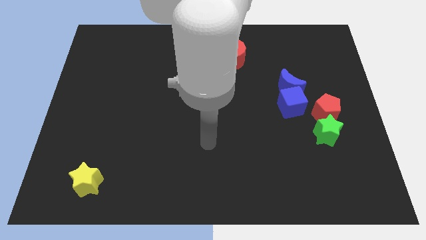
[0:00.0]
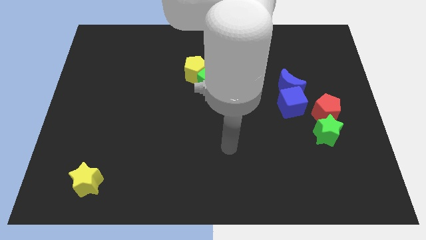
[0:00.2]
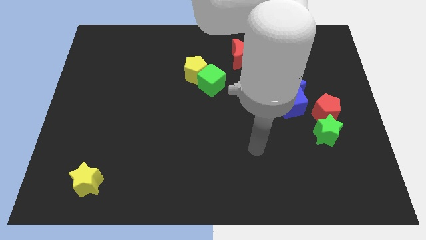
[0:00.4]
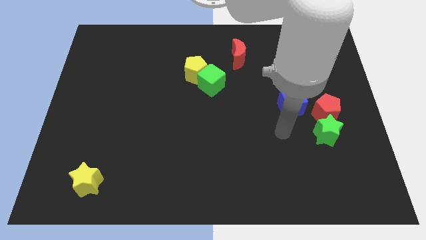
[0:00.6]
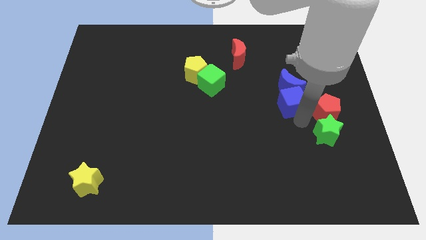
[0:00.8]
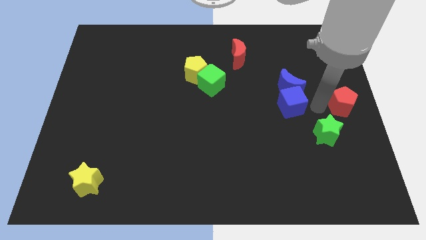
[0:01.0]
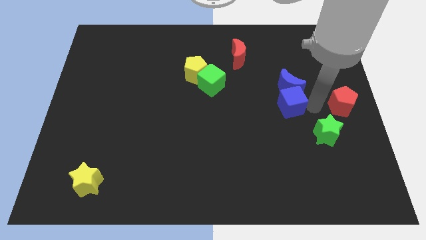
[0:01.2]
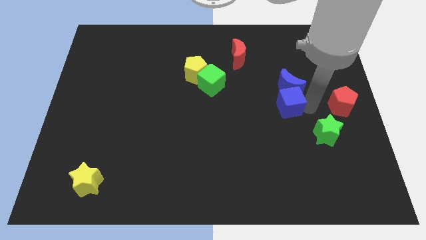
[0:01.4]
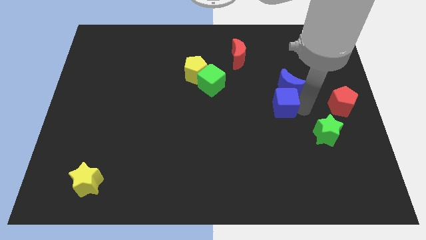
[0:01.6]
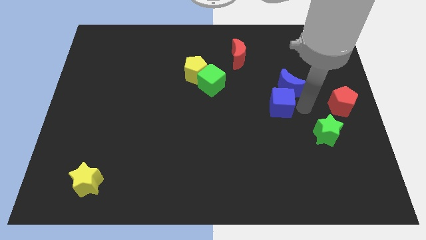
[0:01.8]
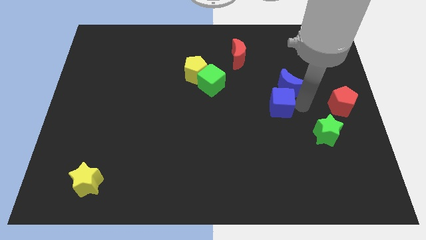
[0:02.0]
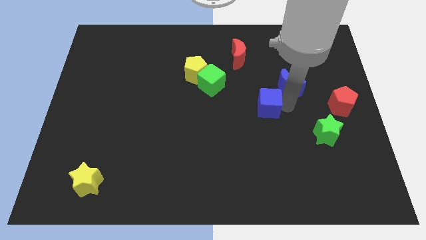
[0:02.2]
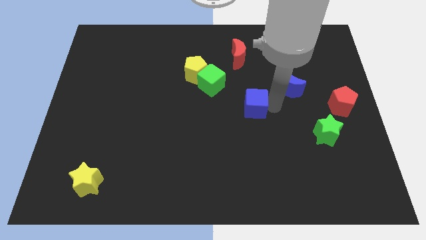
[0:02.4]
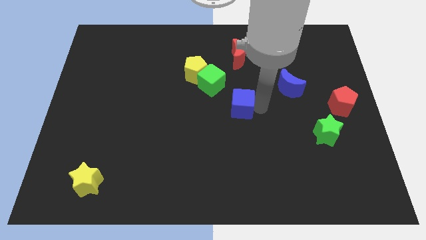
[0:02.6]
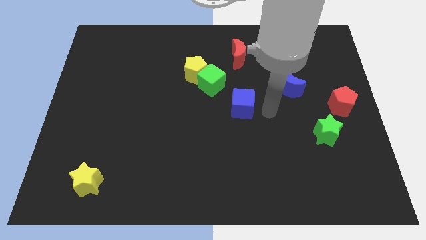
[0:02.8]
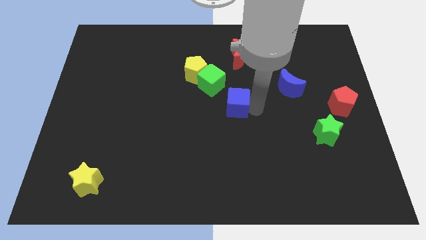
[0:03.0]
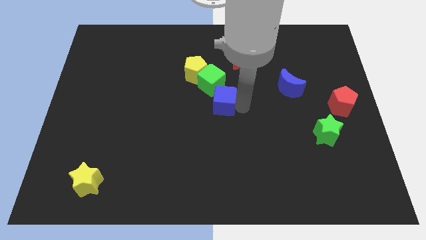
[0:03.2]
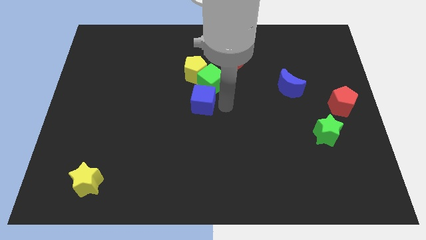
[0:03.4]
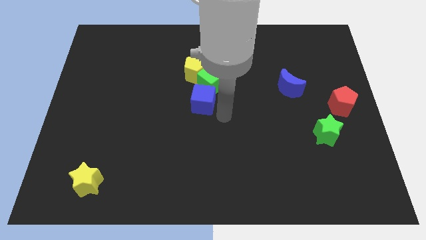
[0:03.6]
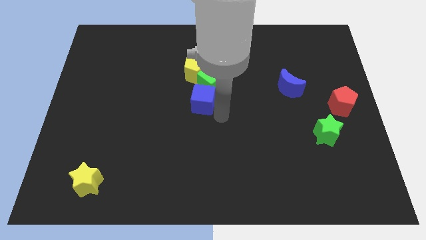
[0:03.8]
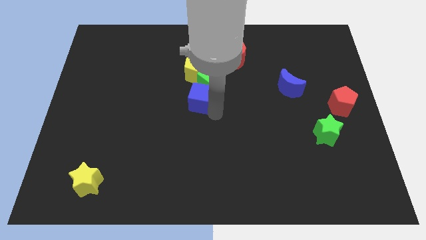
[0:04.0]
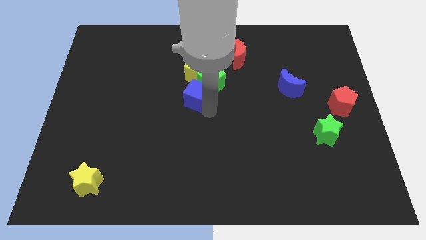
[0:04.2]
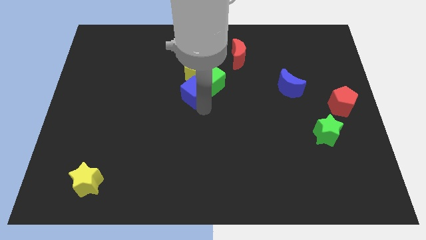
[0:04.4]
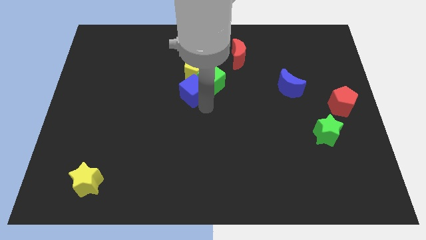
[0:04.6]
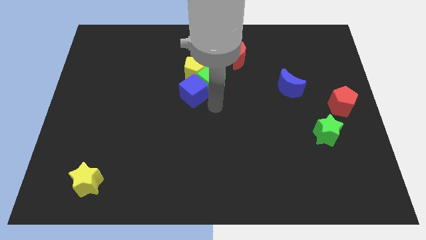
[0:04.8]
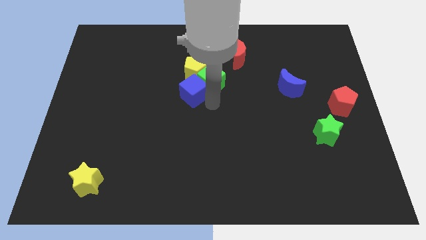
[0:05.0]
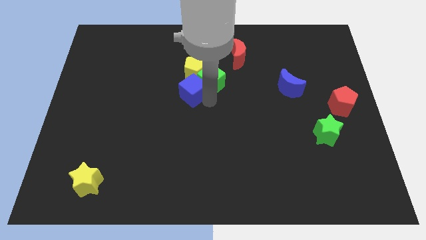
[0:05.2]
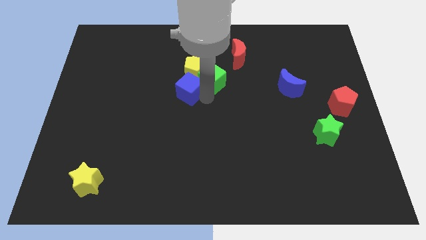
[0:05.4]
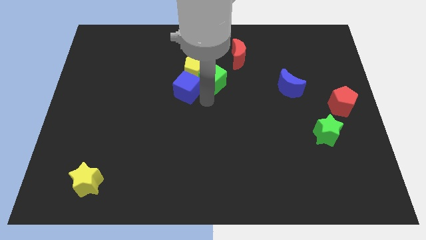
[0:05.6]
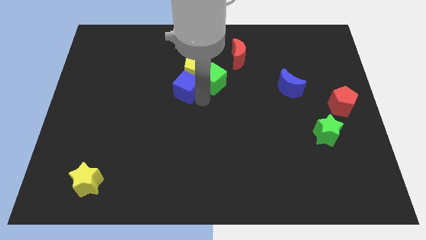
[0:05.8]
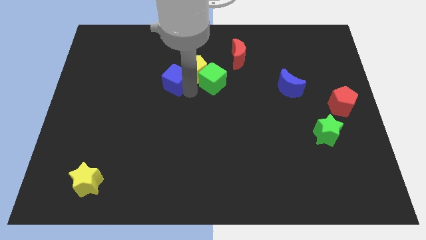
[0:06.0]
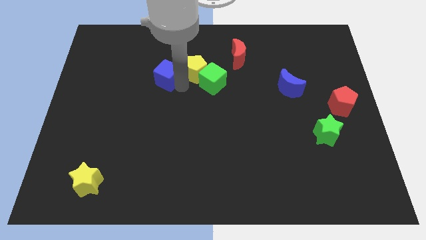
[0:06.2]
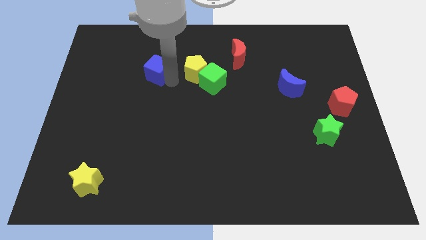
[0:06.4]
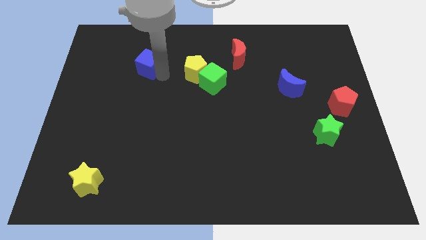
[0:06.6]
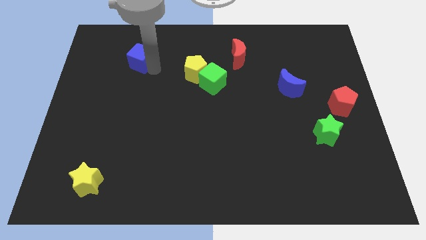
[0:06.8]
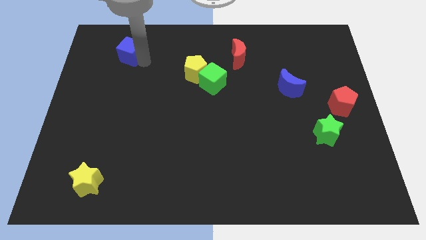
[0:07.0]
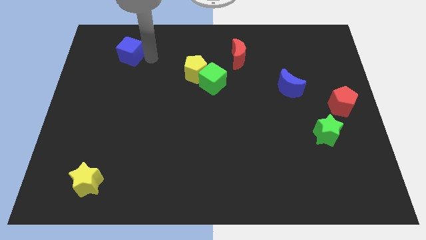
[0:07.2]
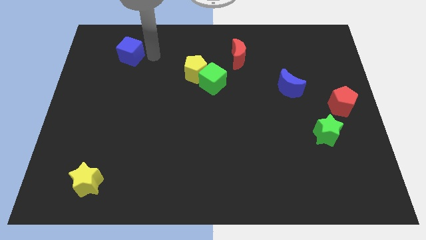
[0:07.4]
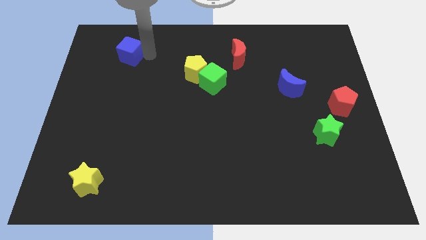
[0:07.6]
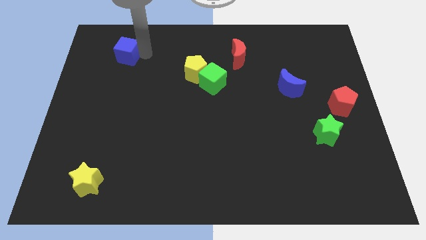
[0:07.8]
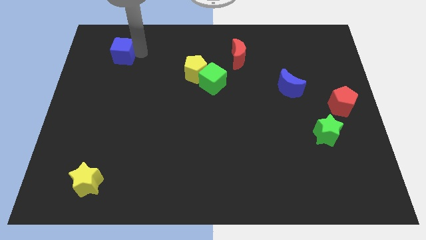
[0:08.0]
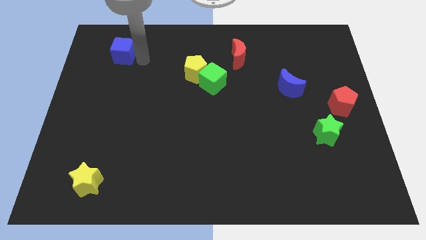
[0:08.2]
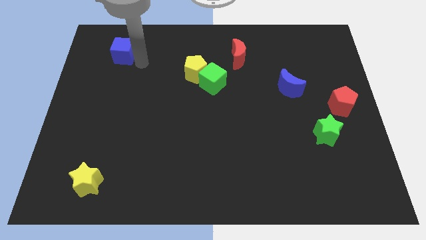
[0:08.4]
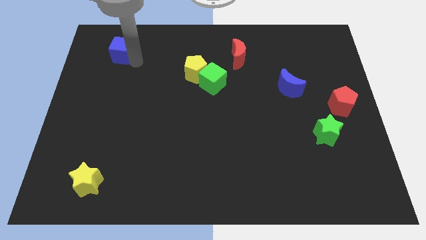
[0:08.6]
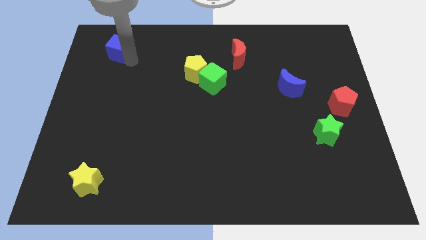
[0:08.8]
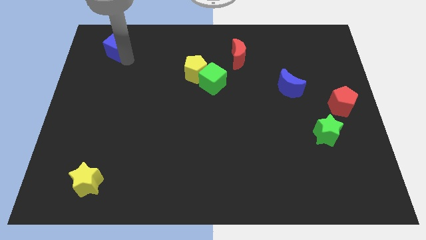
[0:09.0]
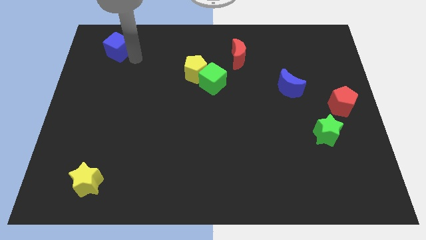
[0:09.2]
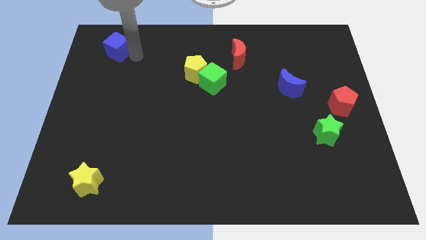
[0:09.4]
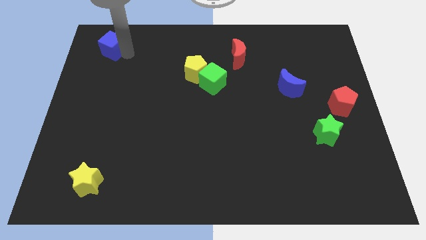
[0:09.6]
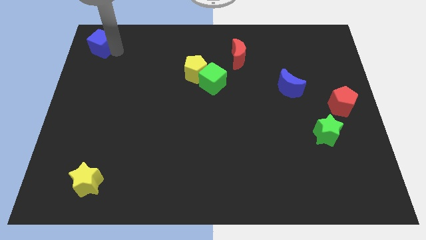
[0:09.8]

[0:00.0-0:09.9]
move the blue cube to the top left corner

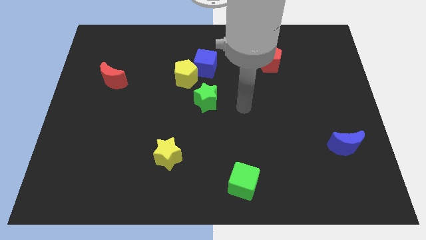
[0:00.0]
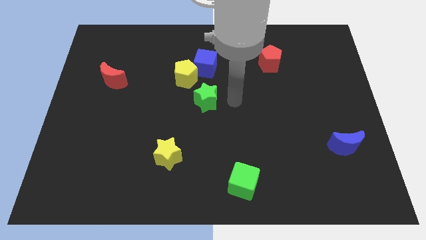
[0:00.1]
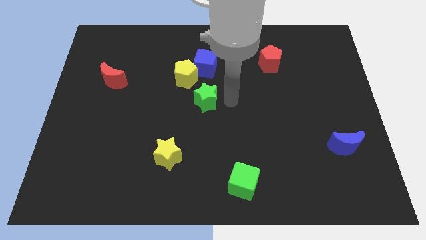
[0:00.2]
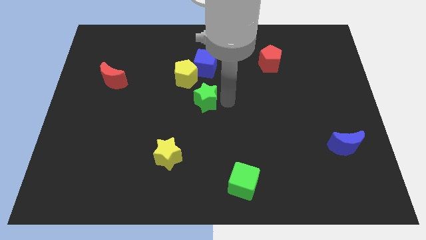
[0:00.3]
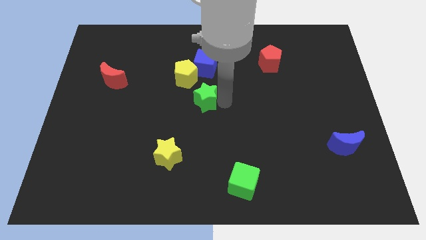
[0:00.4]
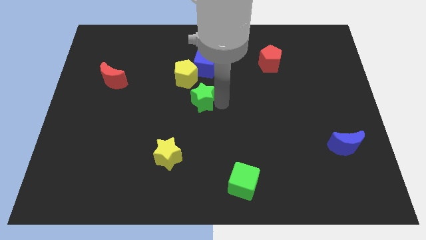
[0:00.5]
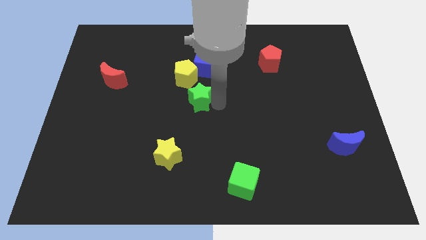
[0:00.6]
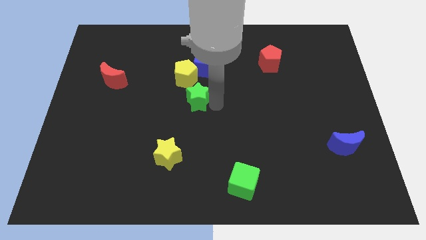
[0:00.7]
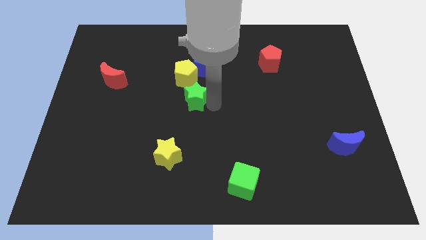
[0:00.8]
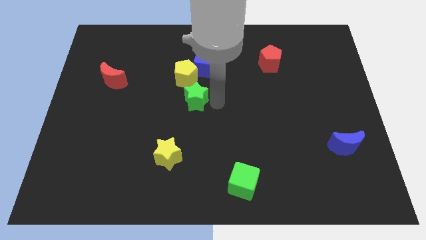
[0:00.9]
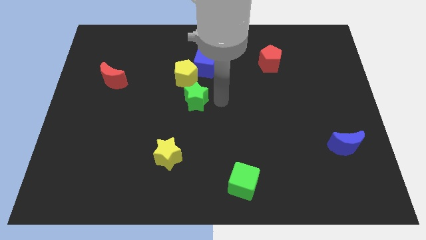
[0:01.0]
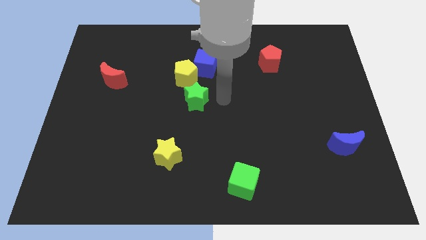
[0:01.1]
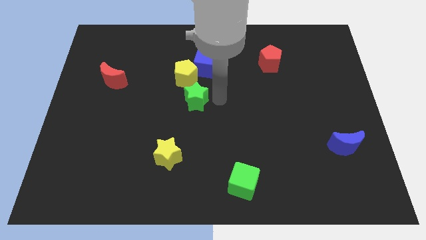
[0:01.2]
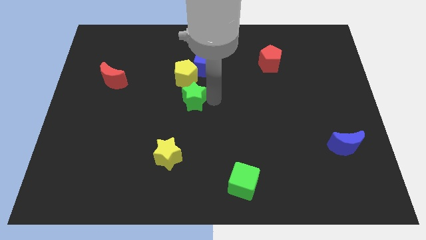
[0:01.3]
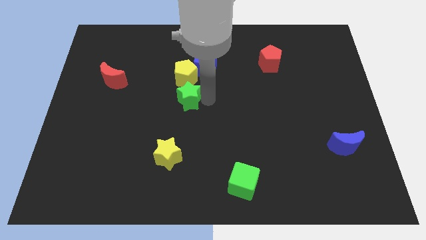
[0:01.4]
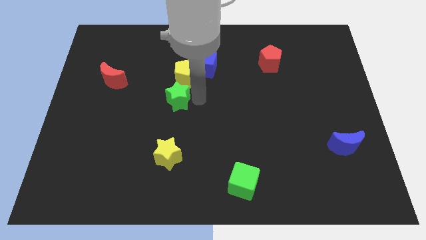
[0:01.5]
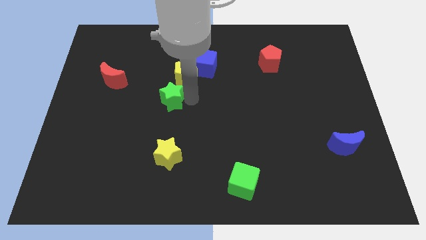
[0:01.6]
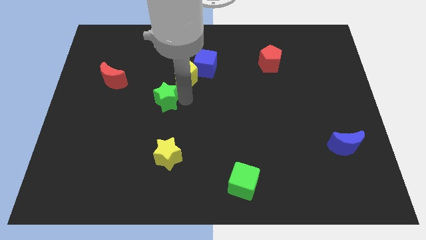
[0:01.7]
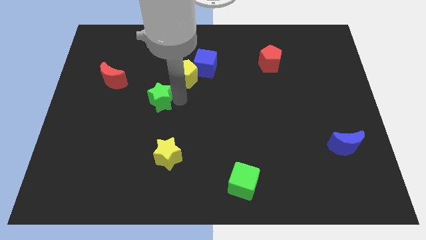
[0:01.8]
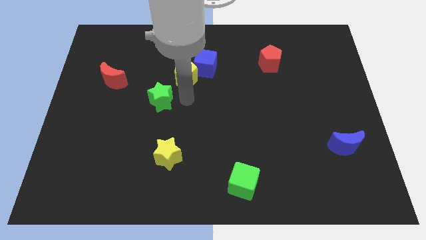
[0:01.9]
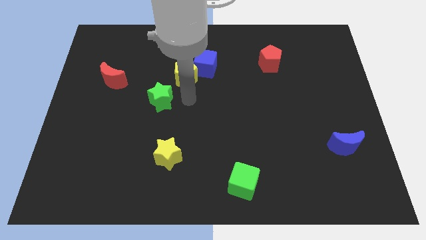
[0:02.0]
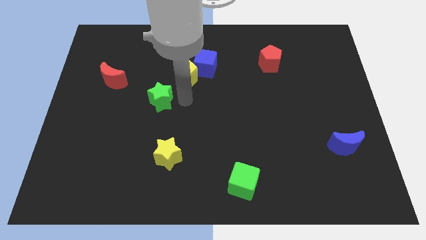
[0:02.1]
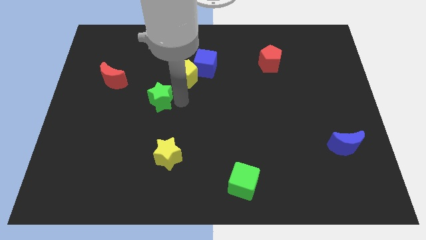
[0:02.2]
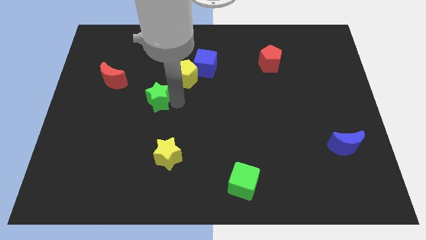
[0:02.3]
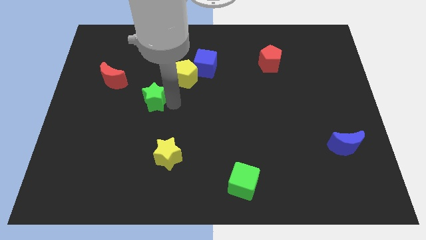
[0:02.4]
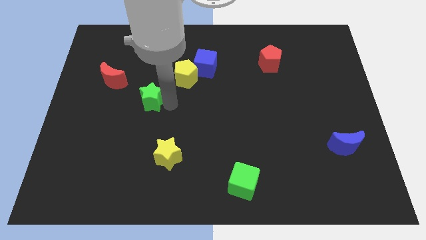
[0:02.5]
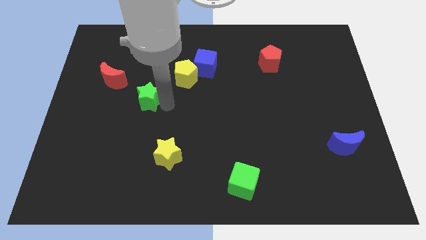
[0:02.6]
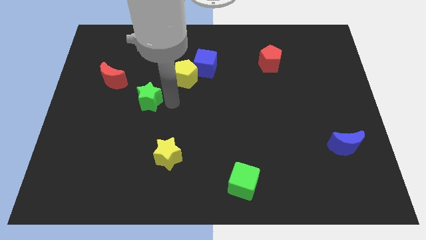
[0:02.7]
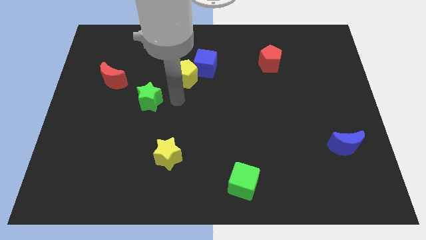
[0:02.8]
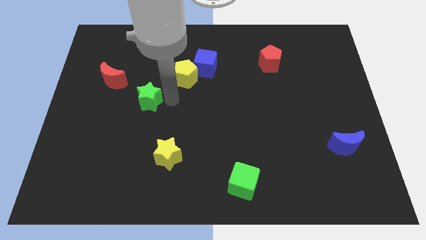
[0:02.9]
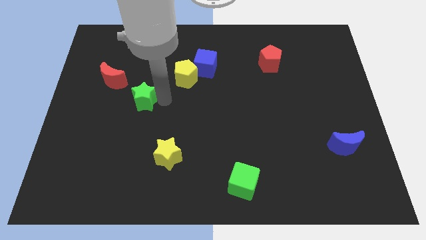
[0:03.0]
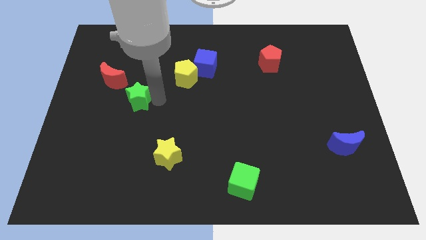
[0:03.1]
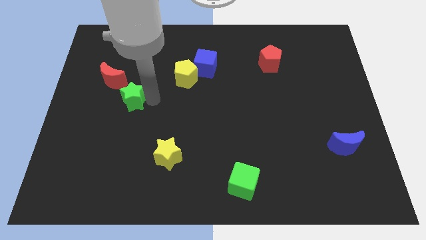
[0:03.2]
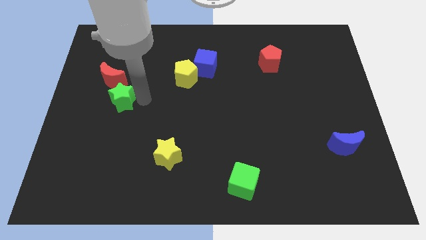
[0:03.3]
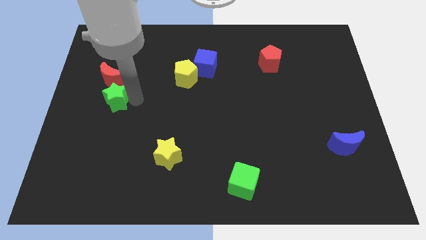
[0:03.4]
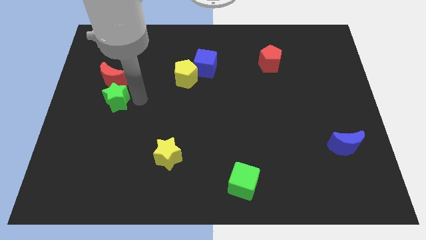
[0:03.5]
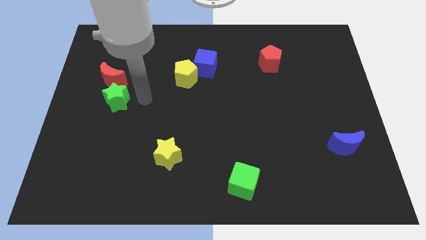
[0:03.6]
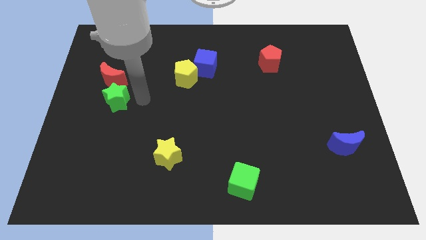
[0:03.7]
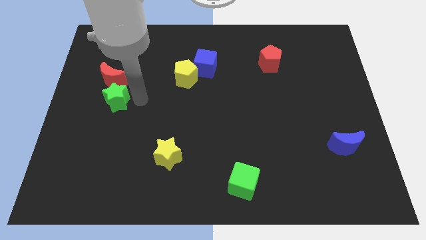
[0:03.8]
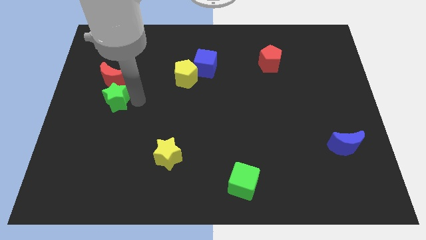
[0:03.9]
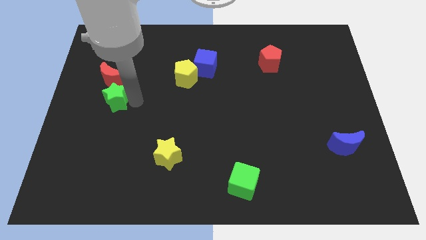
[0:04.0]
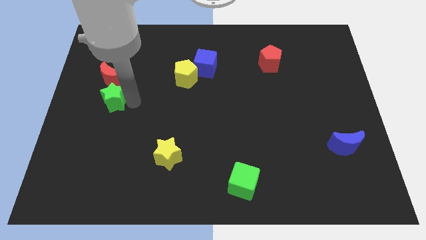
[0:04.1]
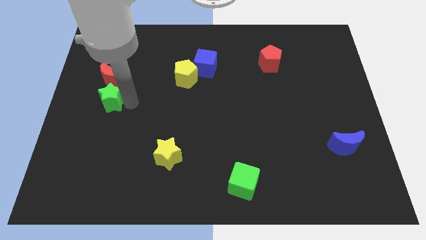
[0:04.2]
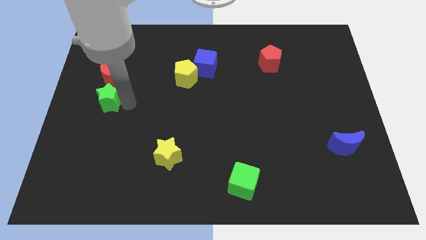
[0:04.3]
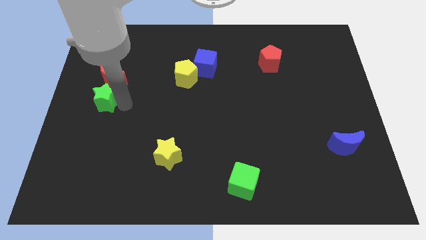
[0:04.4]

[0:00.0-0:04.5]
move the green star to the center left
